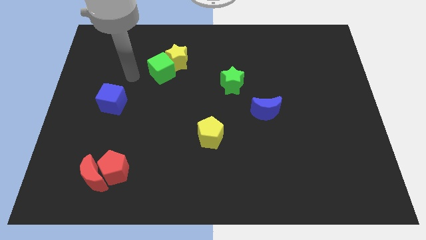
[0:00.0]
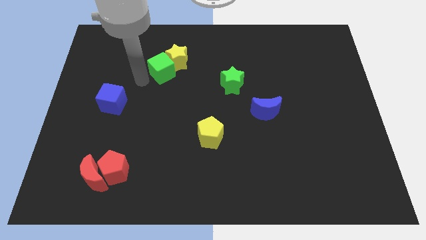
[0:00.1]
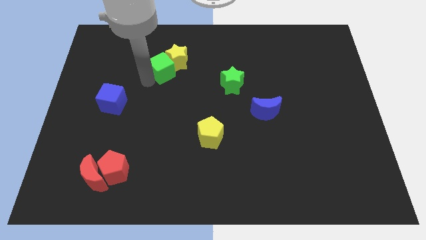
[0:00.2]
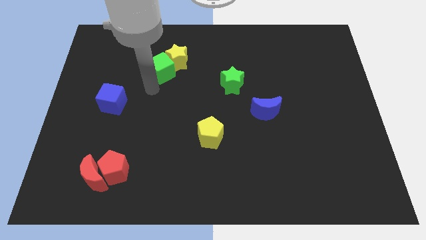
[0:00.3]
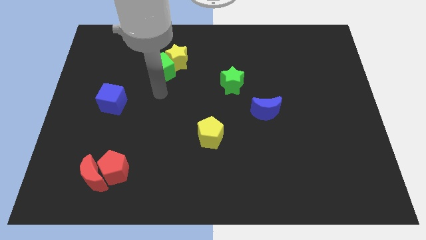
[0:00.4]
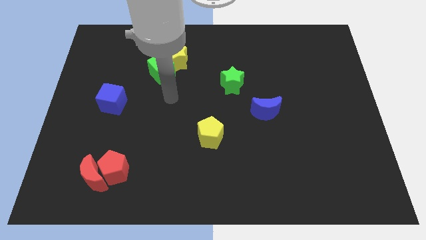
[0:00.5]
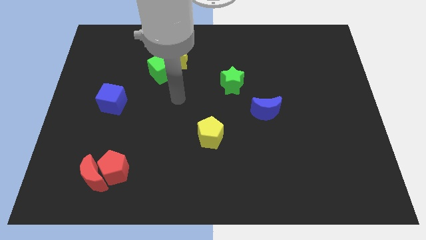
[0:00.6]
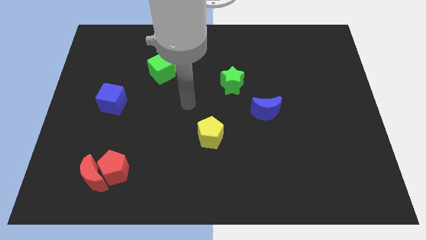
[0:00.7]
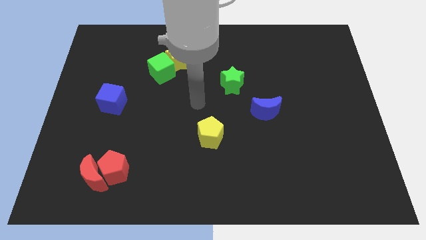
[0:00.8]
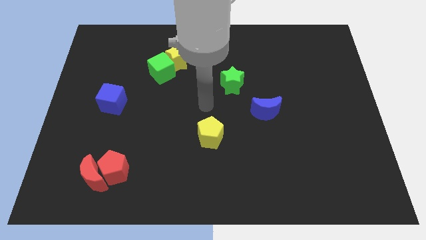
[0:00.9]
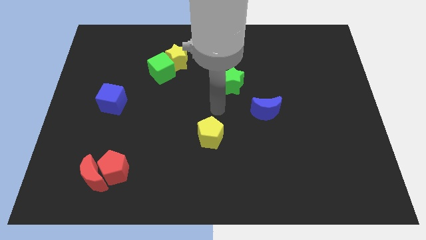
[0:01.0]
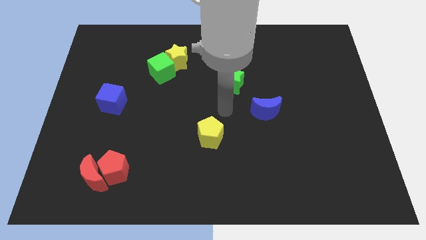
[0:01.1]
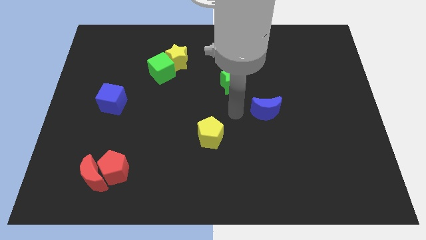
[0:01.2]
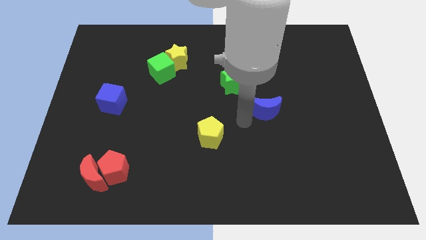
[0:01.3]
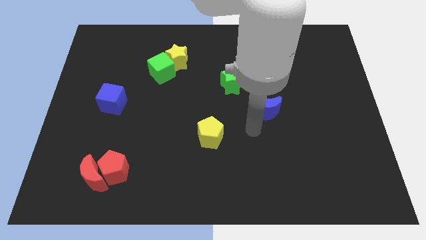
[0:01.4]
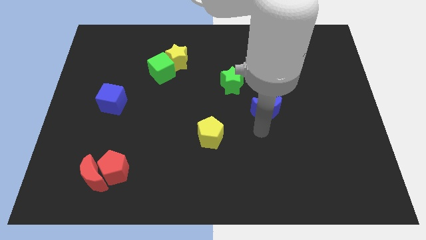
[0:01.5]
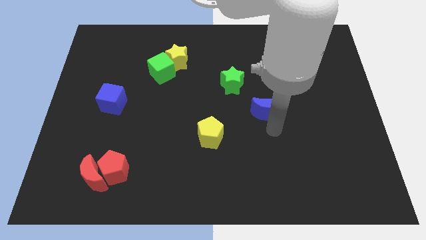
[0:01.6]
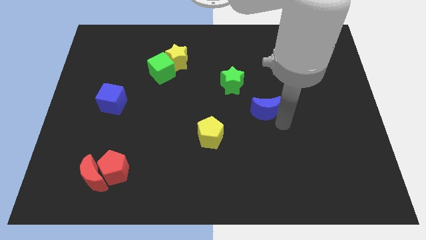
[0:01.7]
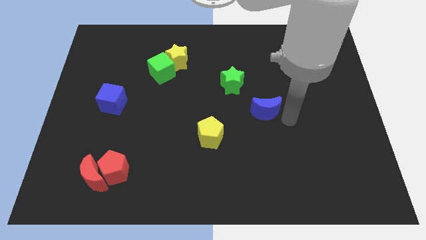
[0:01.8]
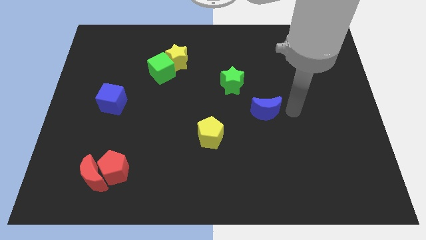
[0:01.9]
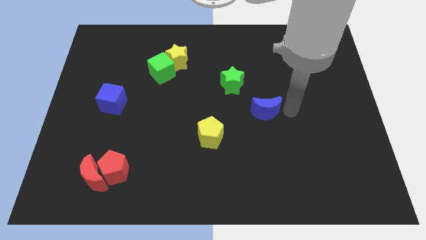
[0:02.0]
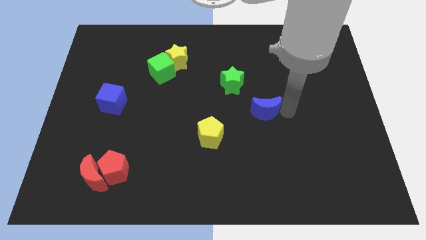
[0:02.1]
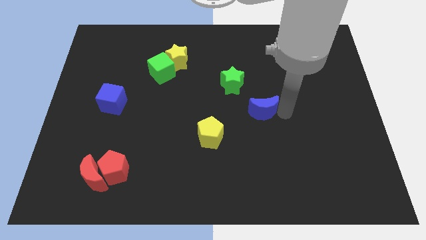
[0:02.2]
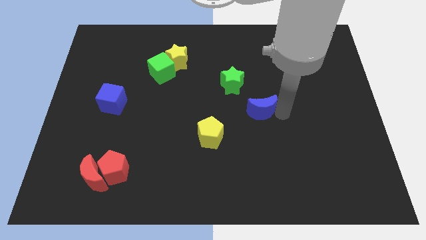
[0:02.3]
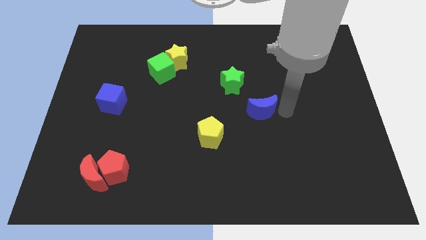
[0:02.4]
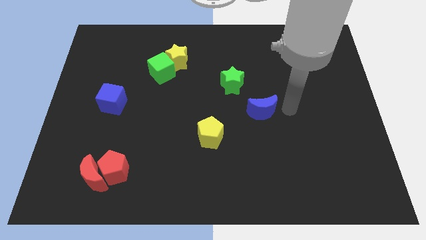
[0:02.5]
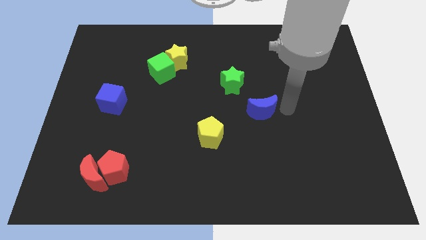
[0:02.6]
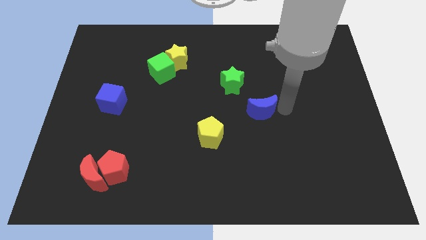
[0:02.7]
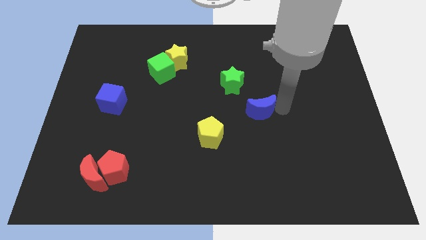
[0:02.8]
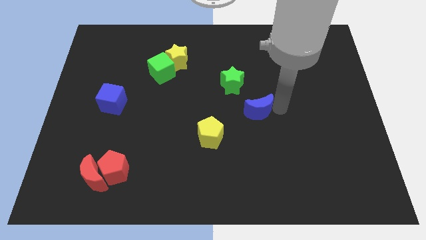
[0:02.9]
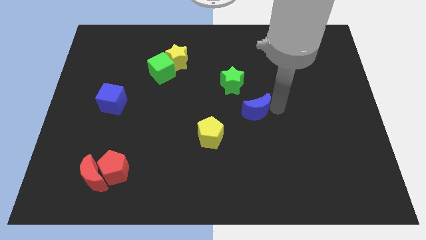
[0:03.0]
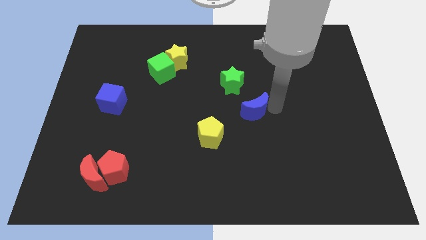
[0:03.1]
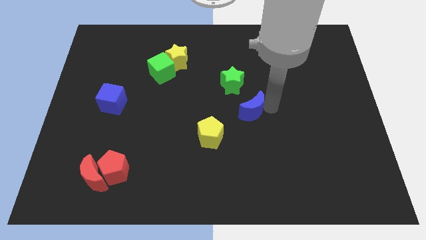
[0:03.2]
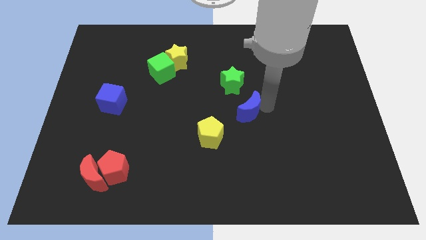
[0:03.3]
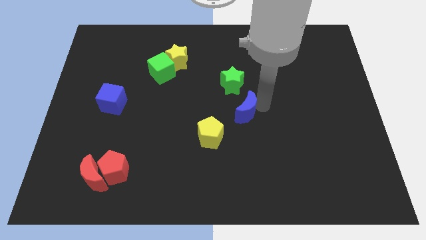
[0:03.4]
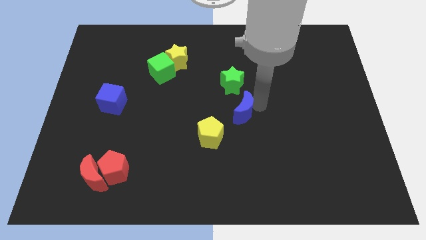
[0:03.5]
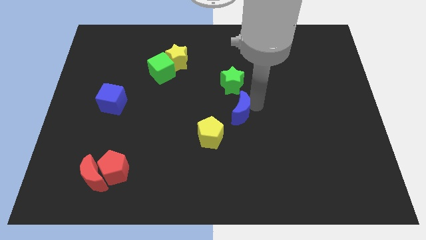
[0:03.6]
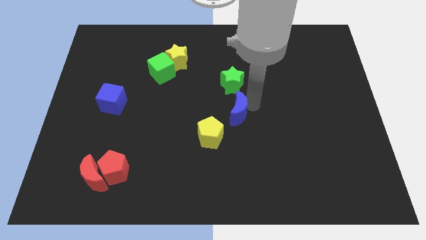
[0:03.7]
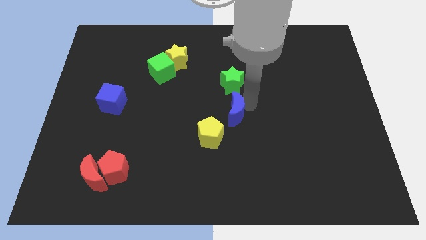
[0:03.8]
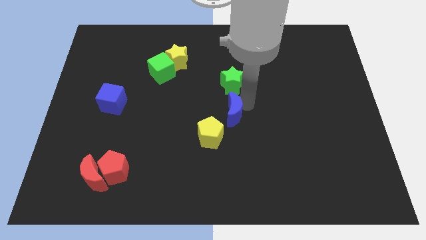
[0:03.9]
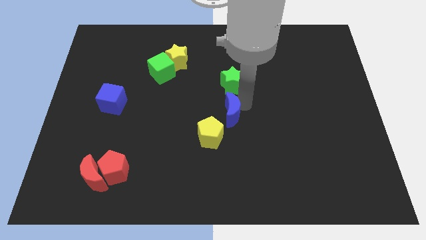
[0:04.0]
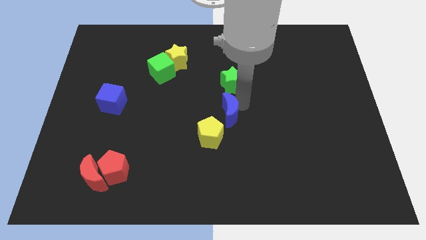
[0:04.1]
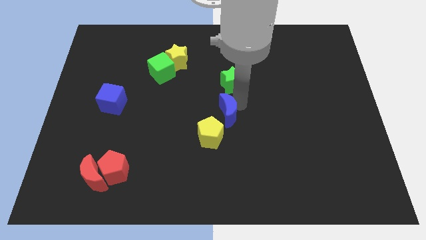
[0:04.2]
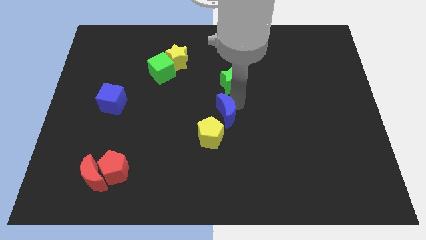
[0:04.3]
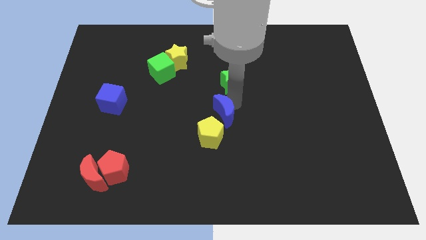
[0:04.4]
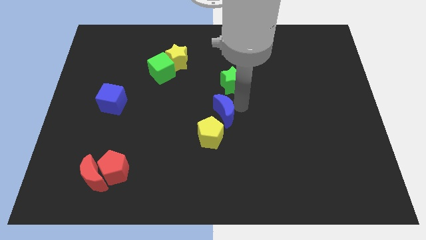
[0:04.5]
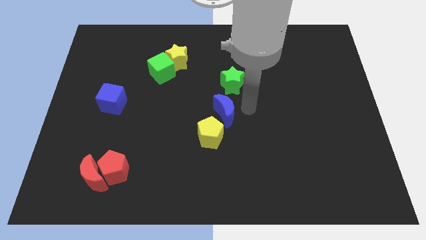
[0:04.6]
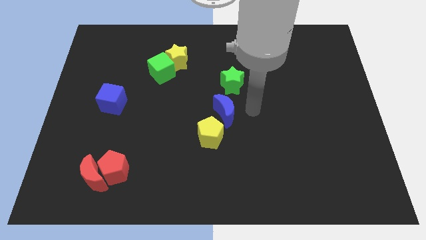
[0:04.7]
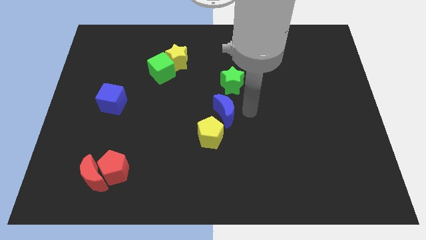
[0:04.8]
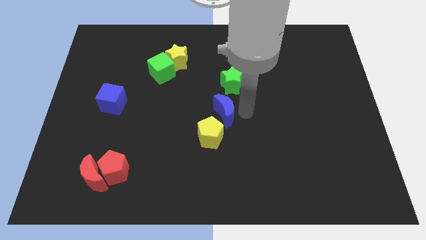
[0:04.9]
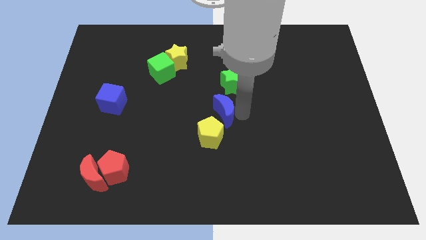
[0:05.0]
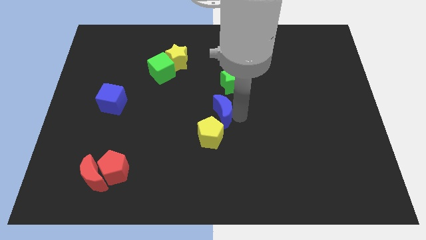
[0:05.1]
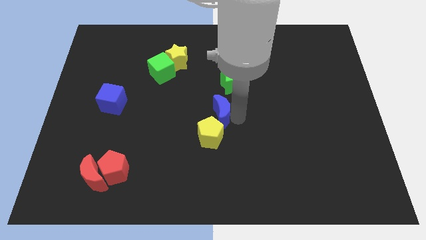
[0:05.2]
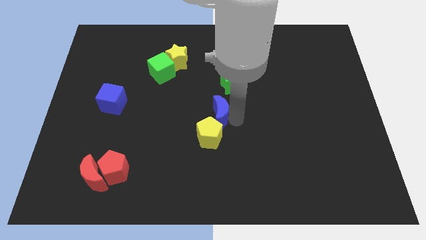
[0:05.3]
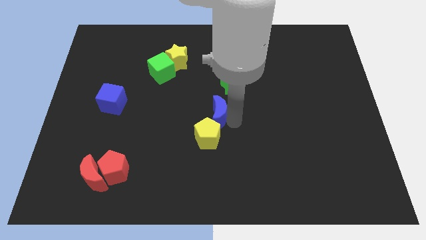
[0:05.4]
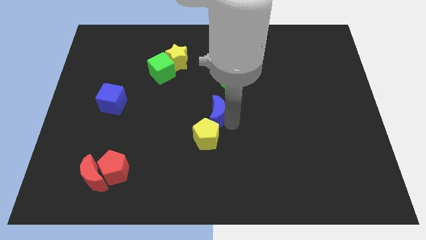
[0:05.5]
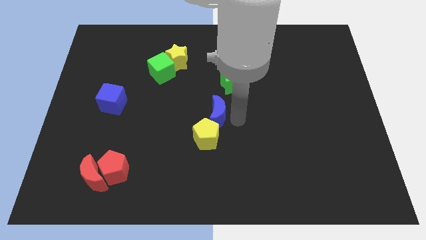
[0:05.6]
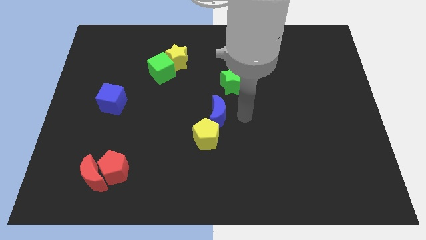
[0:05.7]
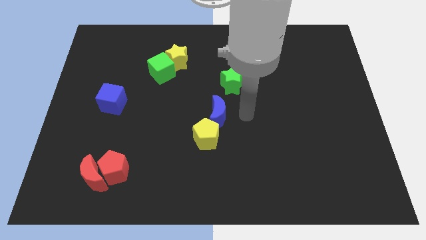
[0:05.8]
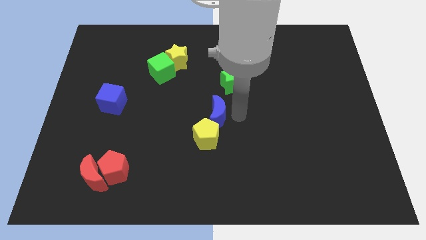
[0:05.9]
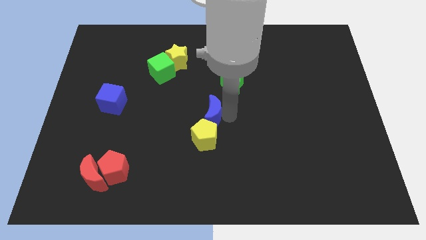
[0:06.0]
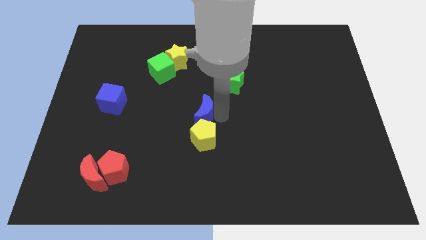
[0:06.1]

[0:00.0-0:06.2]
put the blue moon to the top left side of the yellow pentagon
